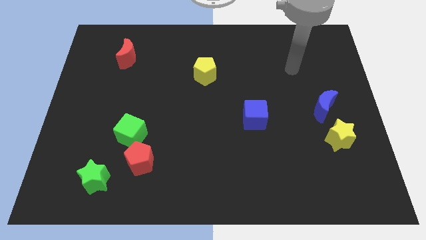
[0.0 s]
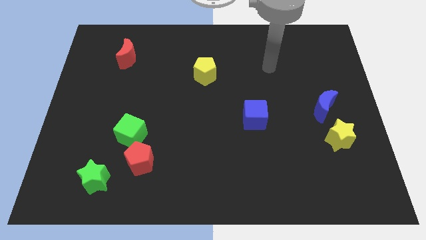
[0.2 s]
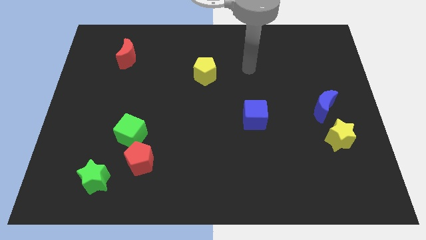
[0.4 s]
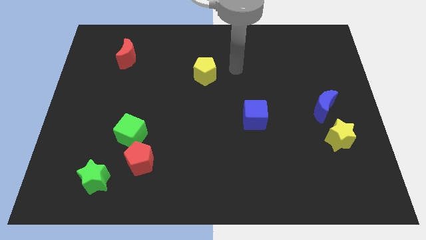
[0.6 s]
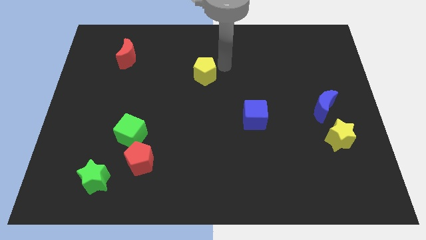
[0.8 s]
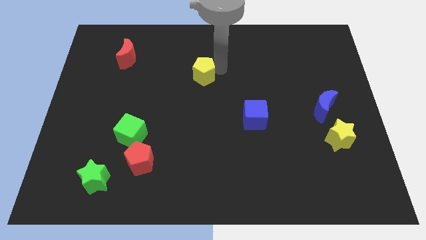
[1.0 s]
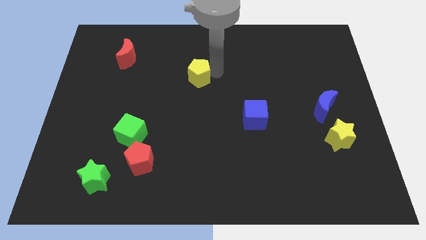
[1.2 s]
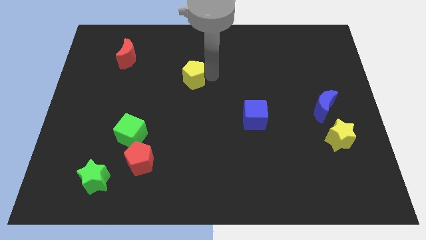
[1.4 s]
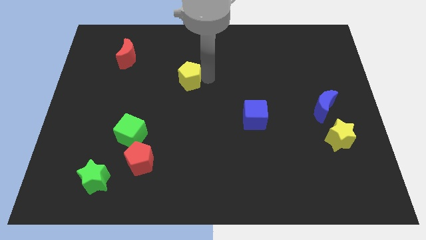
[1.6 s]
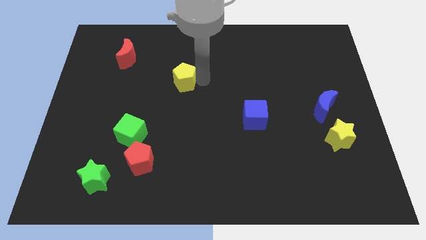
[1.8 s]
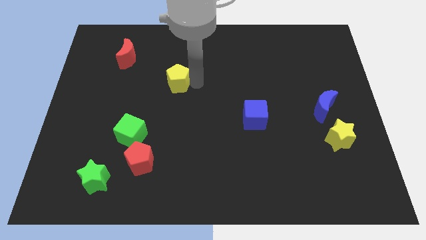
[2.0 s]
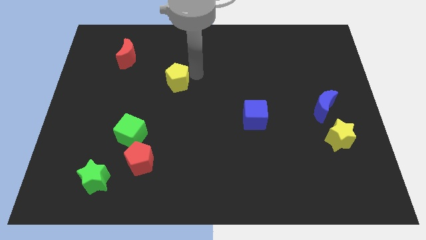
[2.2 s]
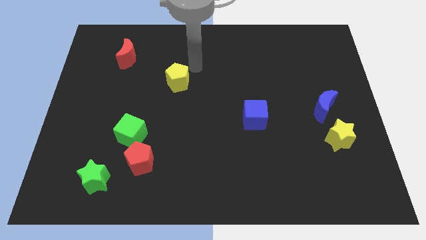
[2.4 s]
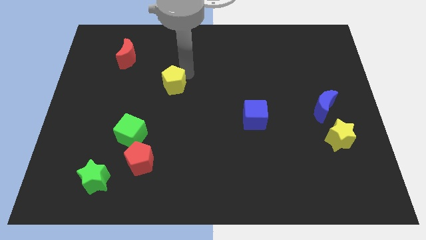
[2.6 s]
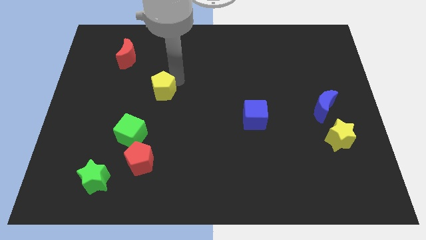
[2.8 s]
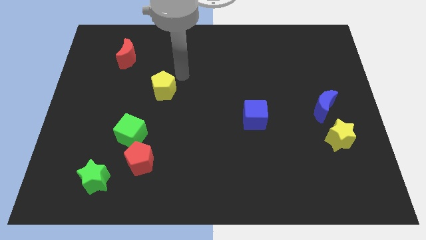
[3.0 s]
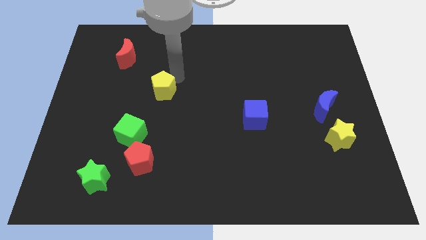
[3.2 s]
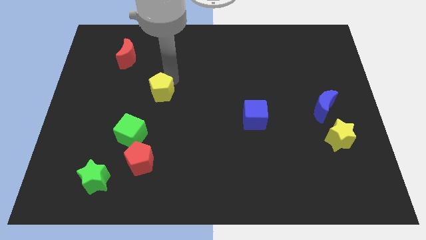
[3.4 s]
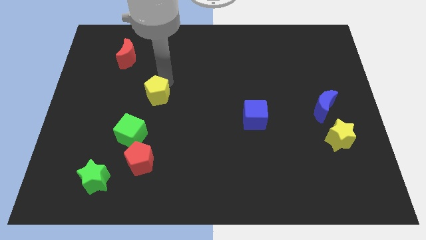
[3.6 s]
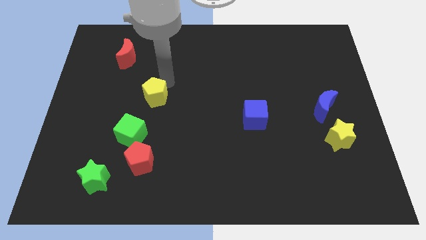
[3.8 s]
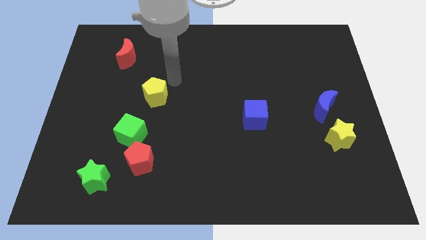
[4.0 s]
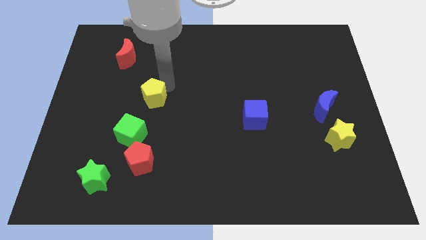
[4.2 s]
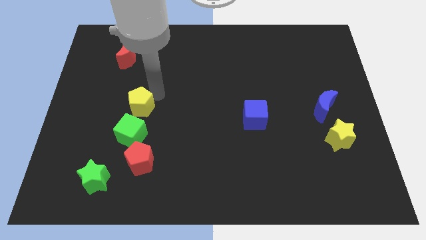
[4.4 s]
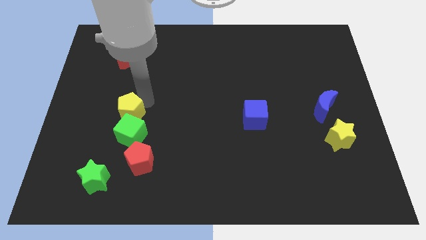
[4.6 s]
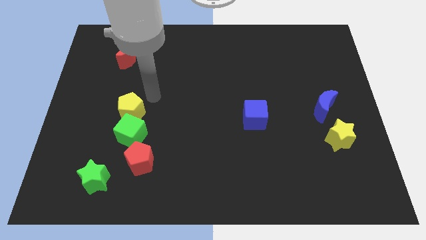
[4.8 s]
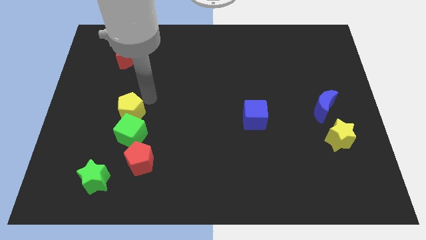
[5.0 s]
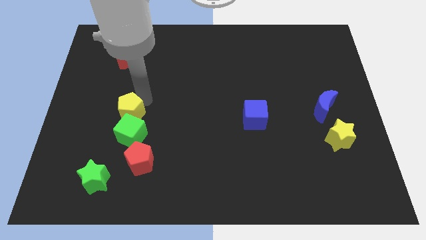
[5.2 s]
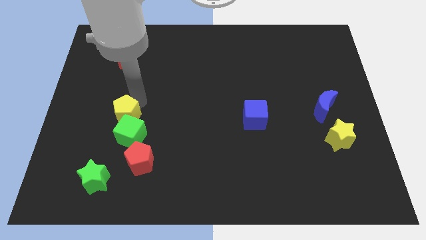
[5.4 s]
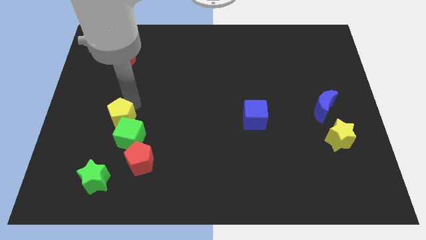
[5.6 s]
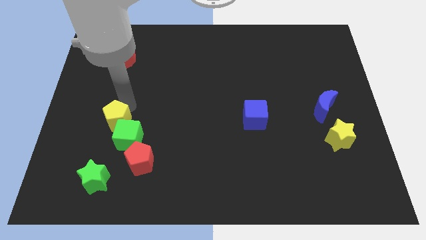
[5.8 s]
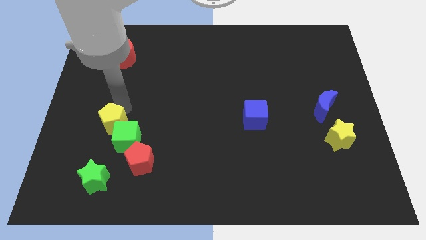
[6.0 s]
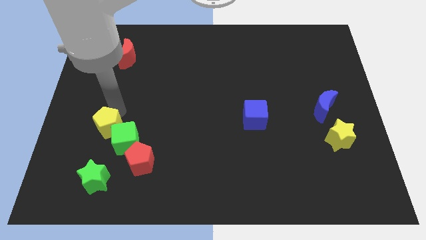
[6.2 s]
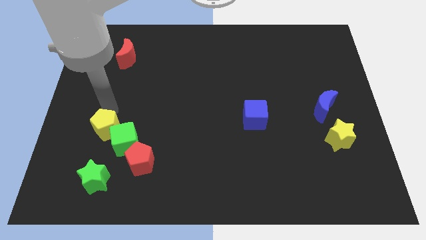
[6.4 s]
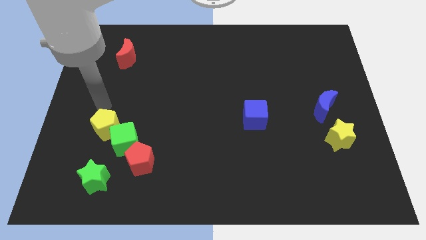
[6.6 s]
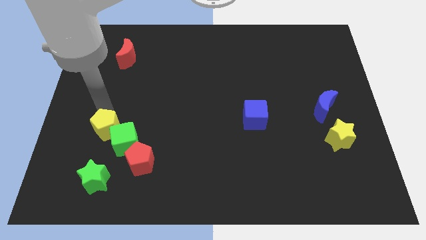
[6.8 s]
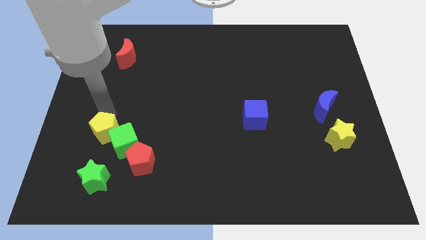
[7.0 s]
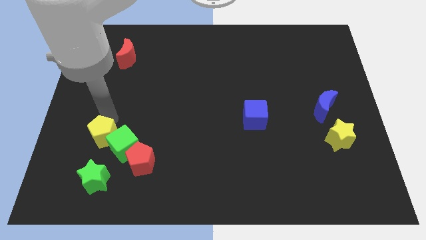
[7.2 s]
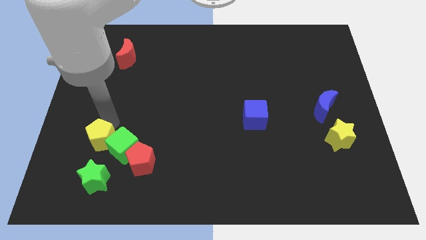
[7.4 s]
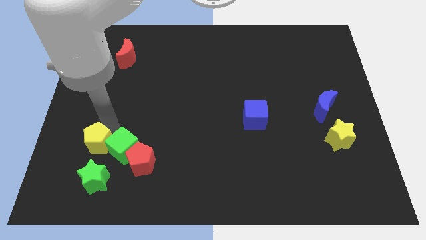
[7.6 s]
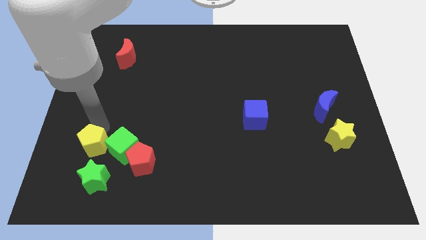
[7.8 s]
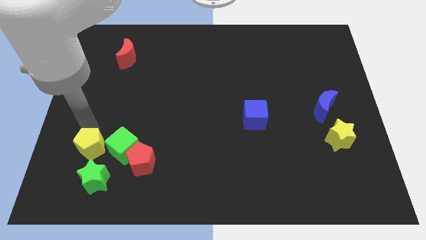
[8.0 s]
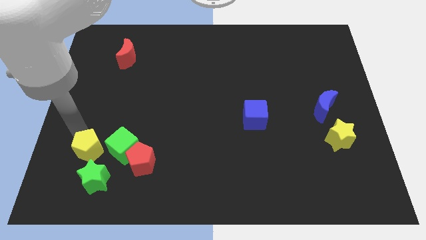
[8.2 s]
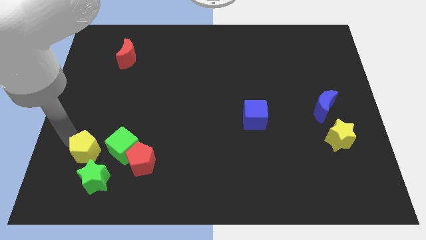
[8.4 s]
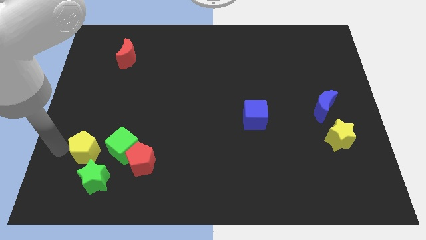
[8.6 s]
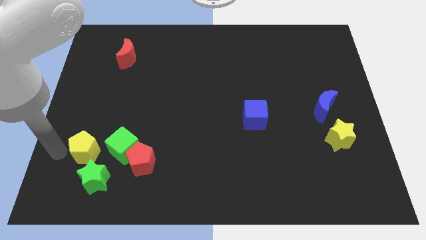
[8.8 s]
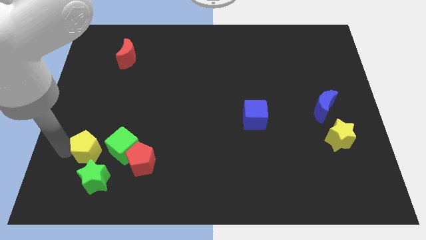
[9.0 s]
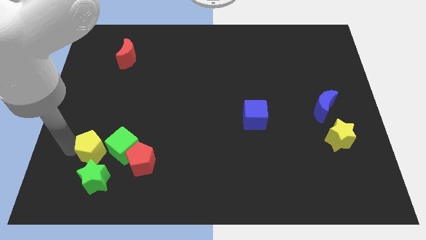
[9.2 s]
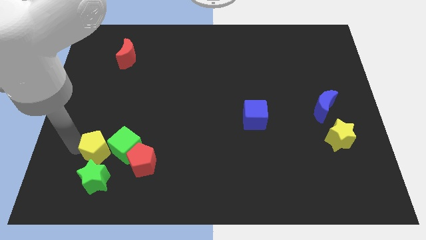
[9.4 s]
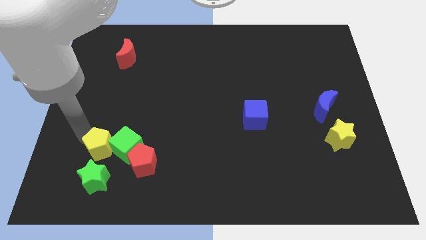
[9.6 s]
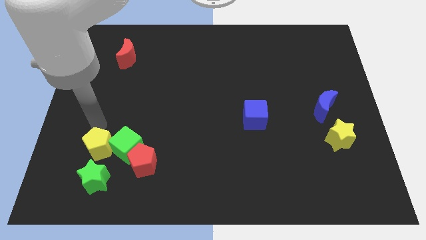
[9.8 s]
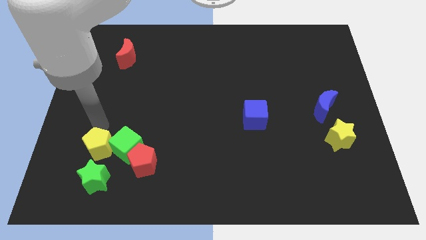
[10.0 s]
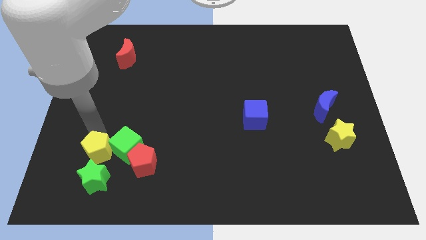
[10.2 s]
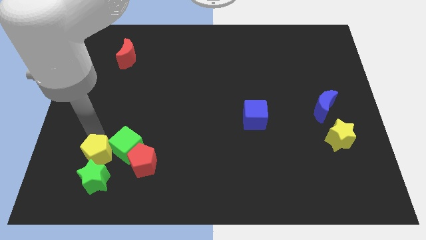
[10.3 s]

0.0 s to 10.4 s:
push the yellow pentagon towards the green star

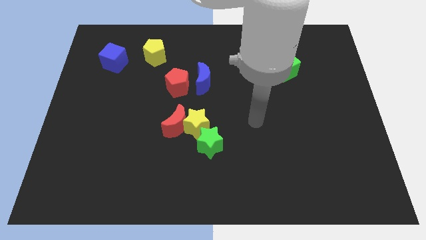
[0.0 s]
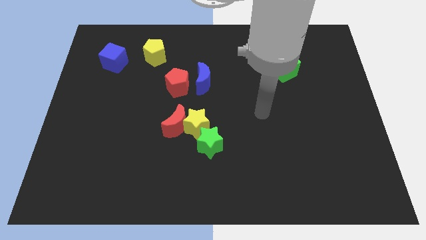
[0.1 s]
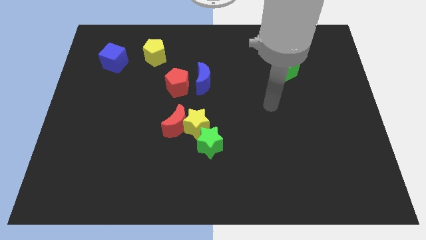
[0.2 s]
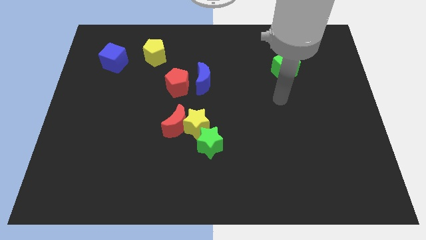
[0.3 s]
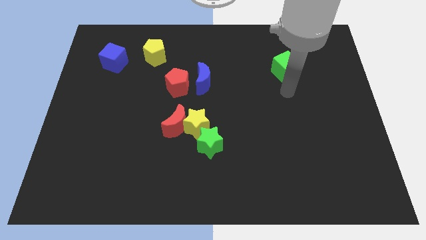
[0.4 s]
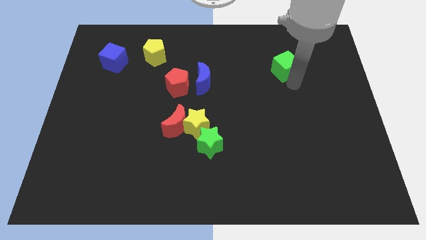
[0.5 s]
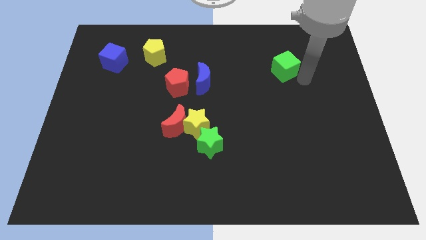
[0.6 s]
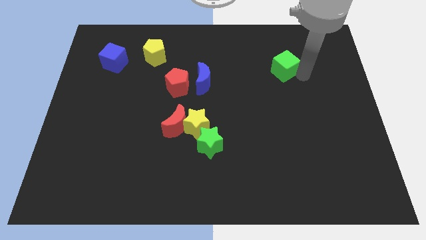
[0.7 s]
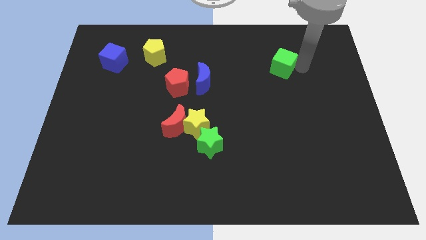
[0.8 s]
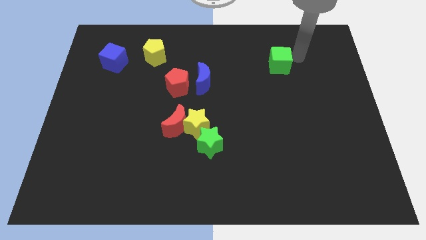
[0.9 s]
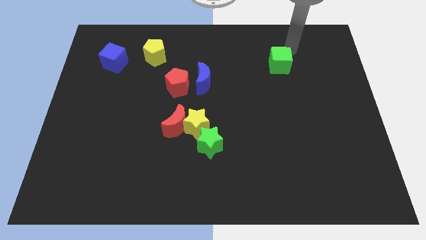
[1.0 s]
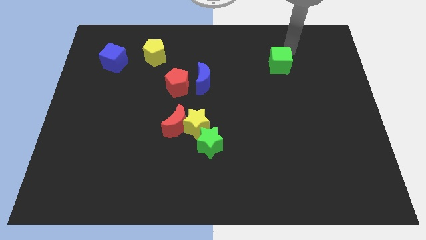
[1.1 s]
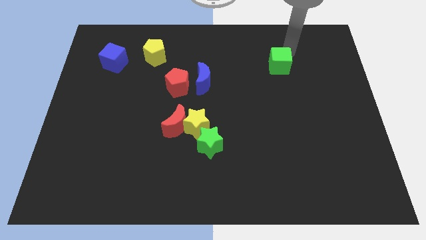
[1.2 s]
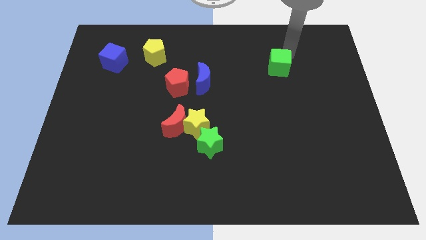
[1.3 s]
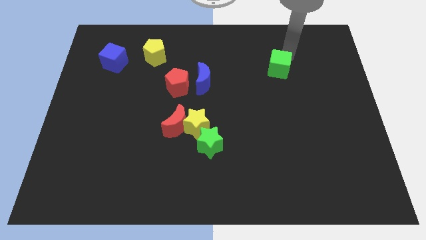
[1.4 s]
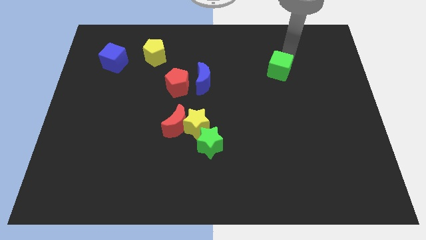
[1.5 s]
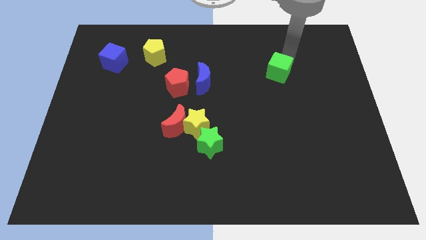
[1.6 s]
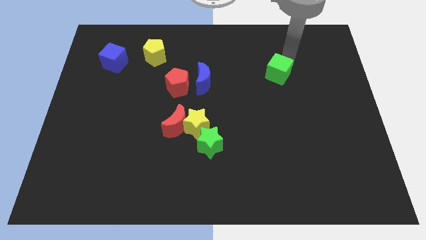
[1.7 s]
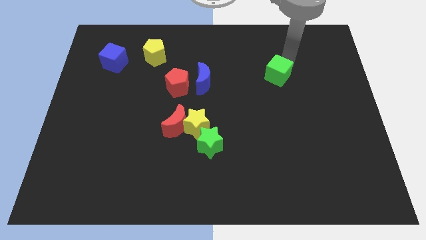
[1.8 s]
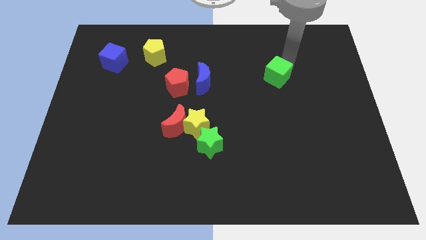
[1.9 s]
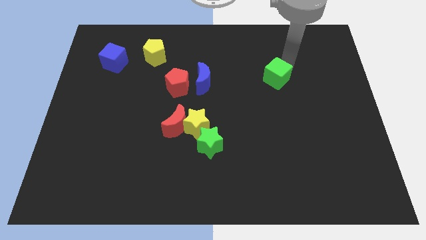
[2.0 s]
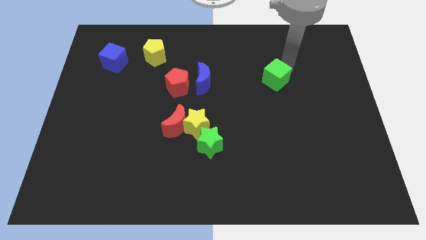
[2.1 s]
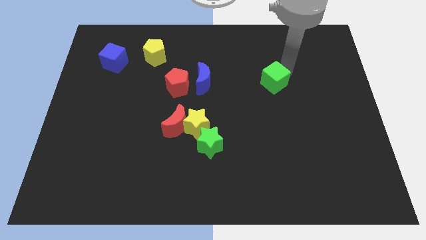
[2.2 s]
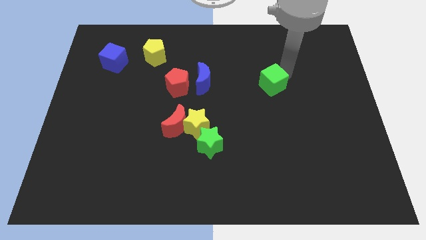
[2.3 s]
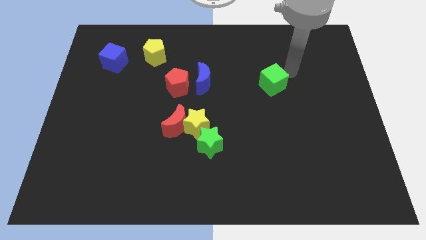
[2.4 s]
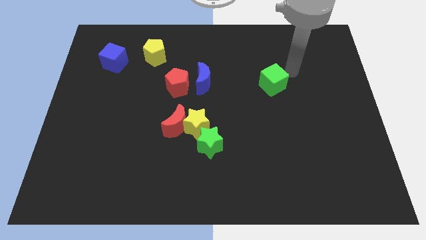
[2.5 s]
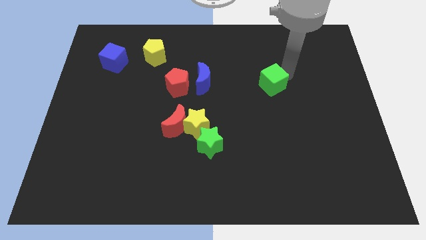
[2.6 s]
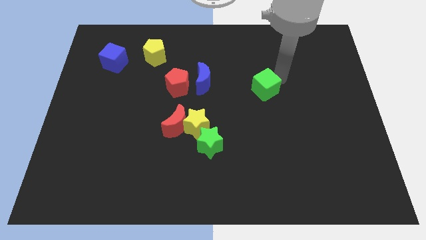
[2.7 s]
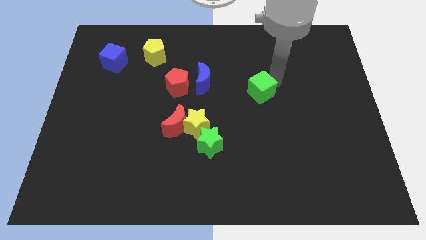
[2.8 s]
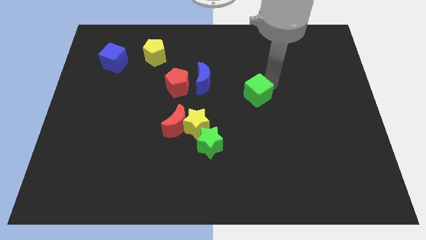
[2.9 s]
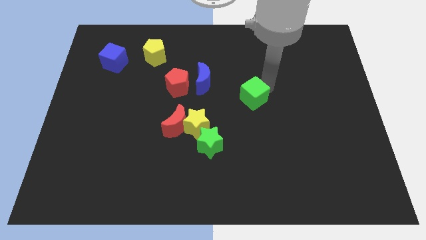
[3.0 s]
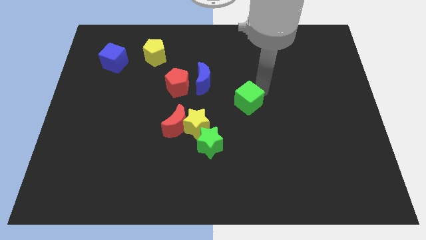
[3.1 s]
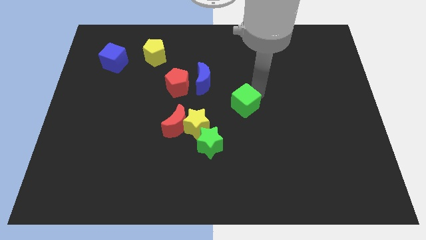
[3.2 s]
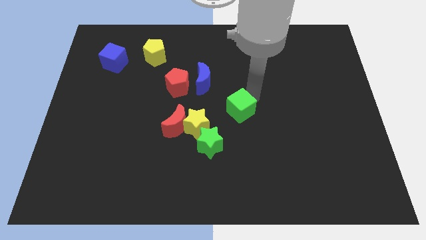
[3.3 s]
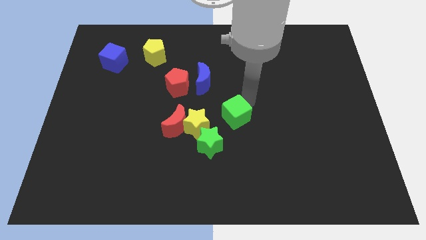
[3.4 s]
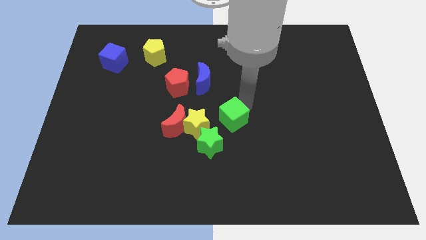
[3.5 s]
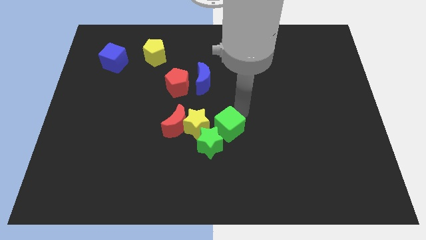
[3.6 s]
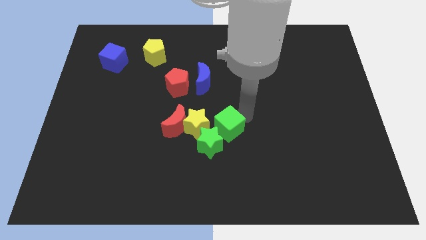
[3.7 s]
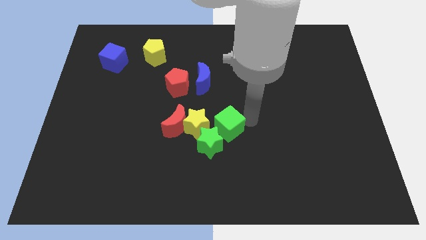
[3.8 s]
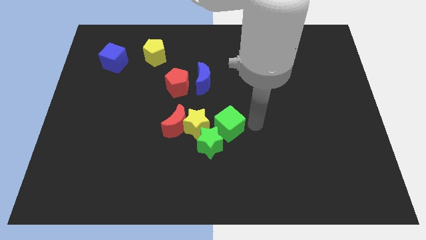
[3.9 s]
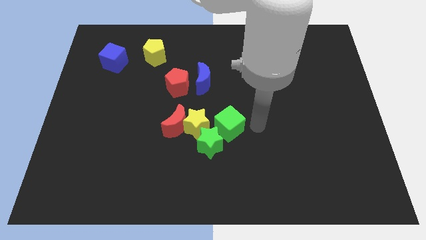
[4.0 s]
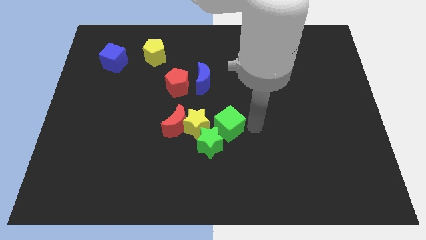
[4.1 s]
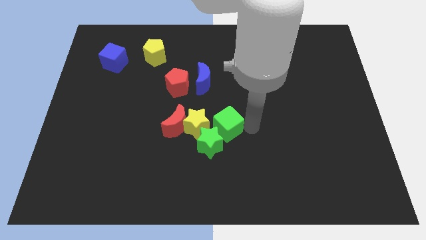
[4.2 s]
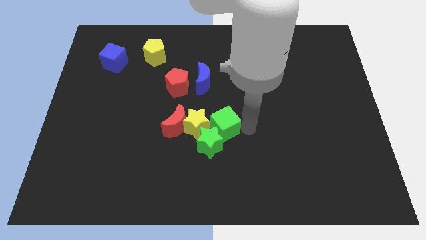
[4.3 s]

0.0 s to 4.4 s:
move the green cube towards the yellow star
